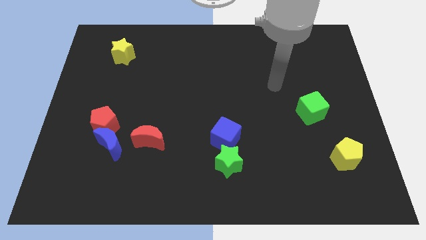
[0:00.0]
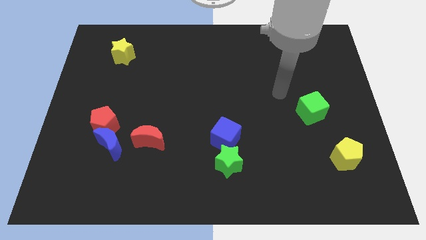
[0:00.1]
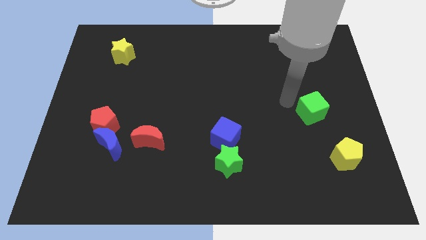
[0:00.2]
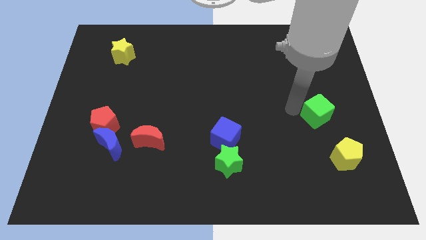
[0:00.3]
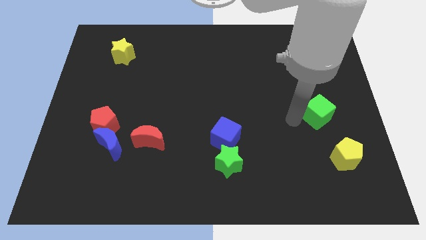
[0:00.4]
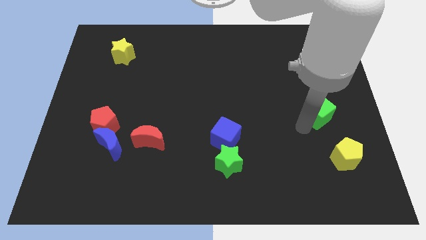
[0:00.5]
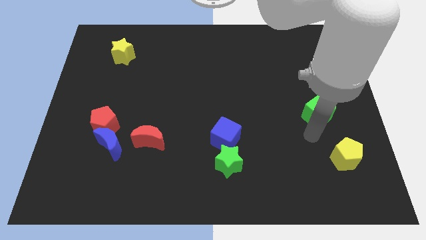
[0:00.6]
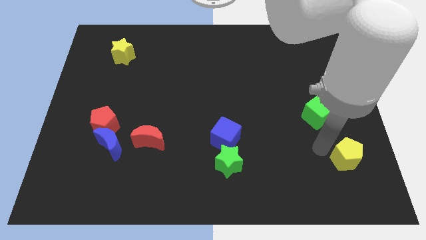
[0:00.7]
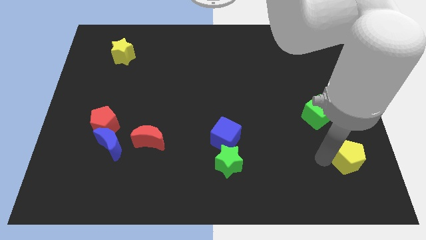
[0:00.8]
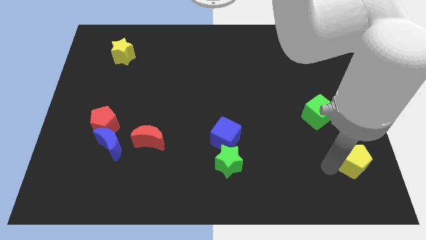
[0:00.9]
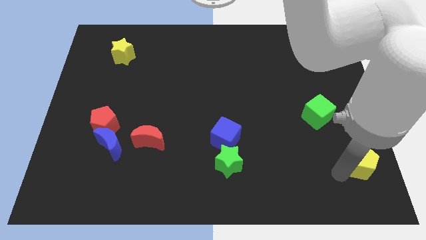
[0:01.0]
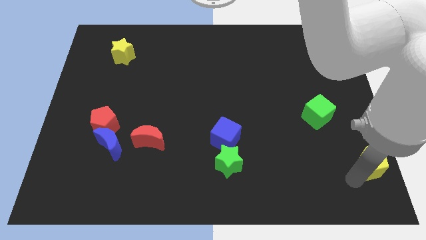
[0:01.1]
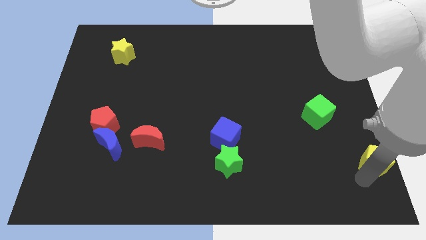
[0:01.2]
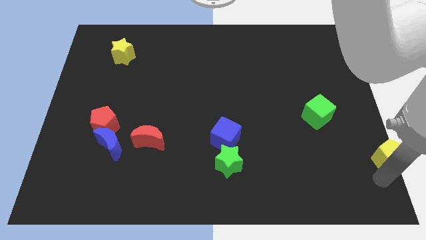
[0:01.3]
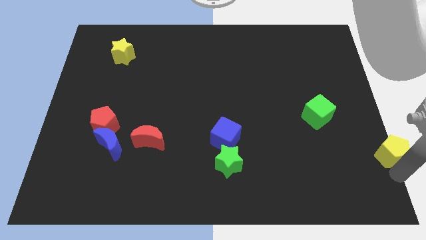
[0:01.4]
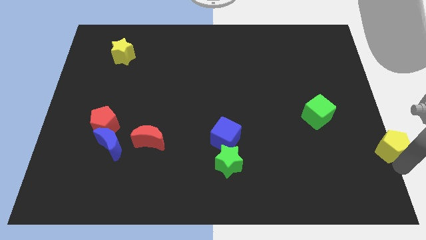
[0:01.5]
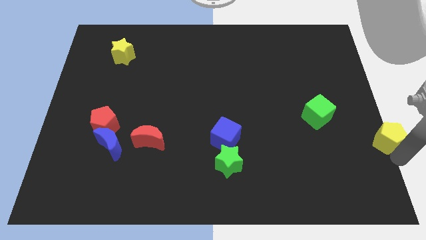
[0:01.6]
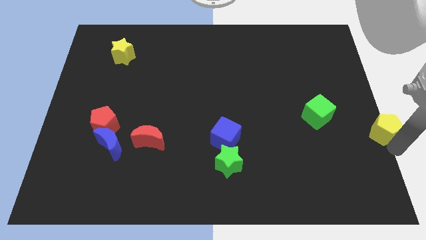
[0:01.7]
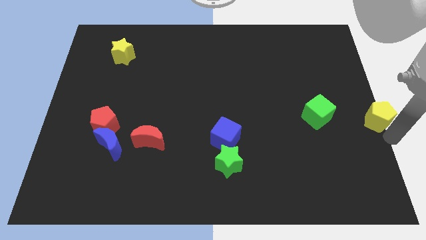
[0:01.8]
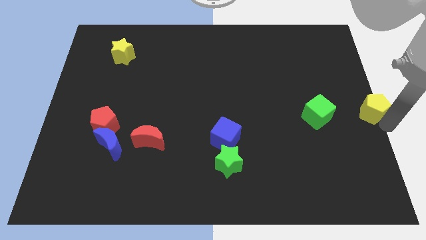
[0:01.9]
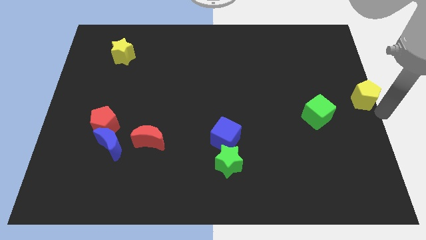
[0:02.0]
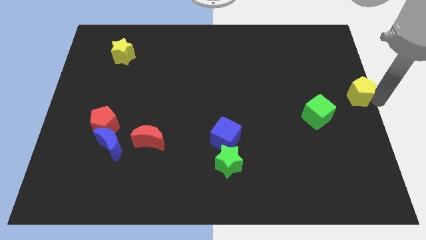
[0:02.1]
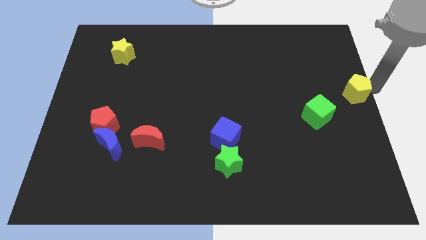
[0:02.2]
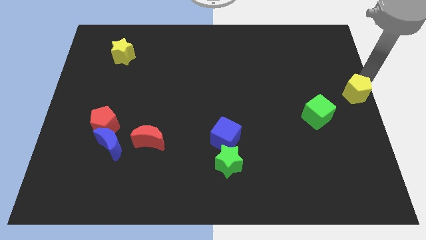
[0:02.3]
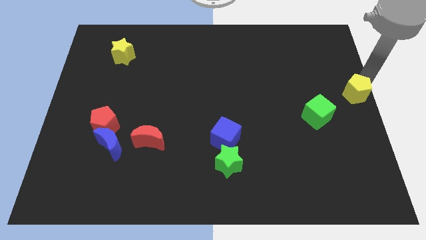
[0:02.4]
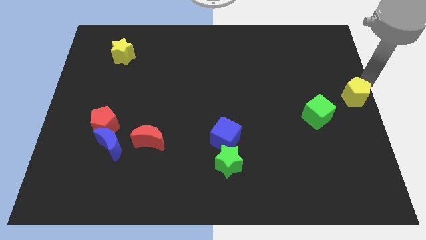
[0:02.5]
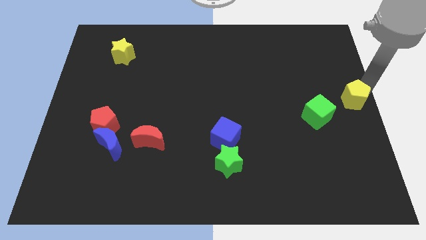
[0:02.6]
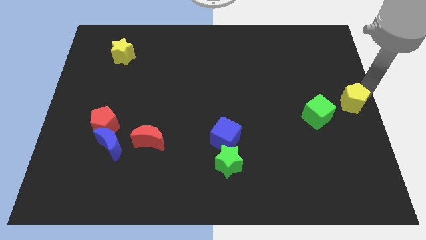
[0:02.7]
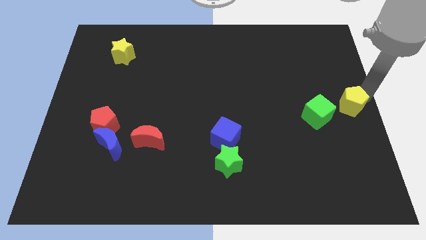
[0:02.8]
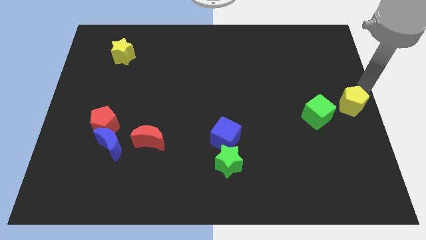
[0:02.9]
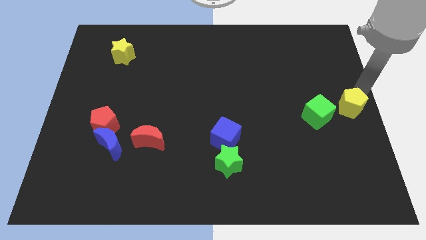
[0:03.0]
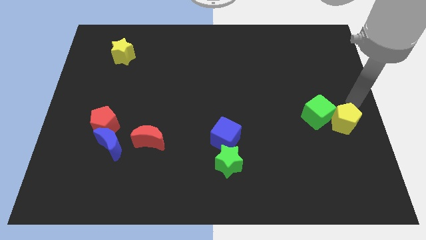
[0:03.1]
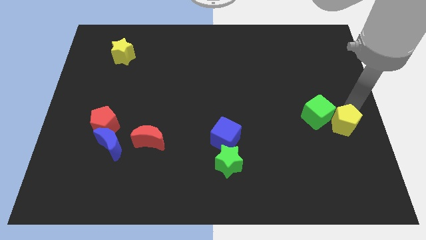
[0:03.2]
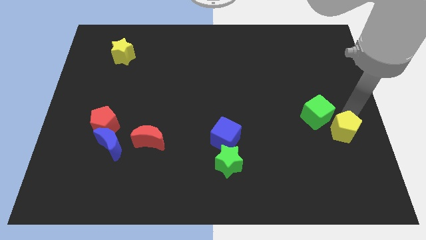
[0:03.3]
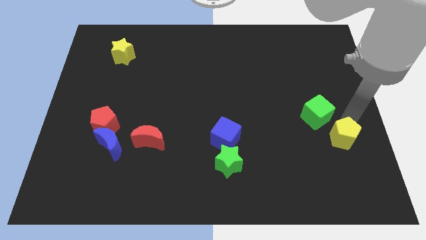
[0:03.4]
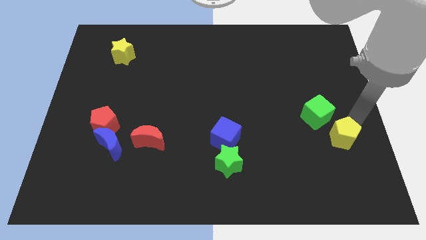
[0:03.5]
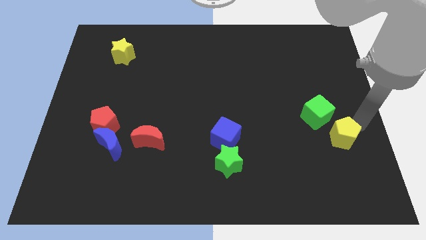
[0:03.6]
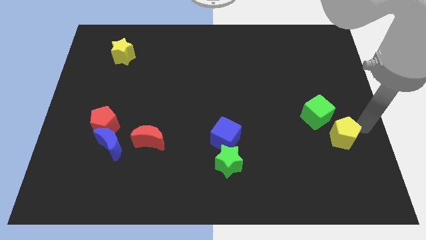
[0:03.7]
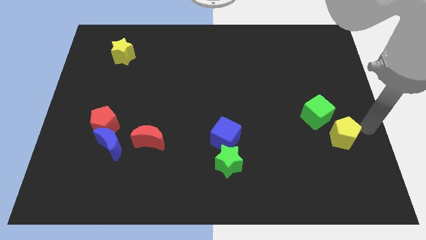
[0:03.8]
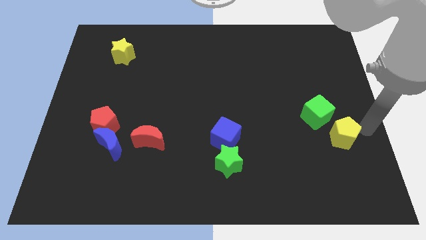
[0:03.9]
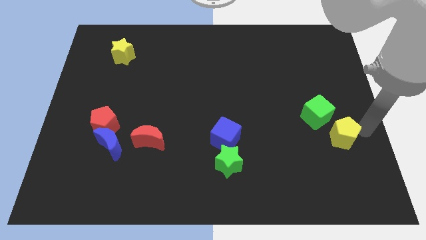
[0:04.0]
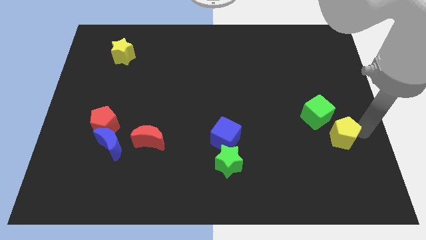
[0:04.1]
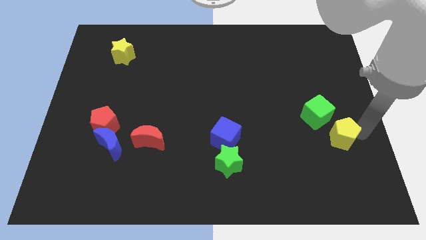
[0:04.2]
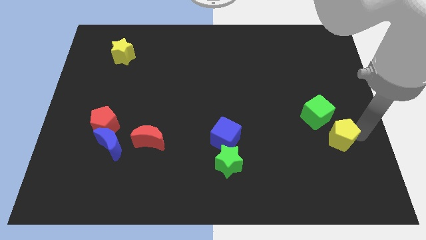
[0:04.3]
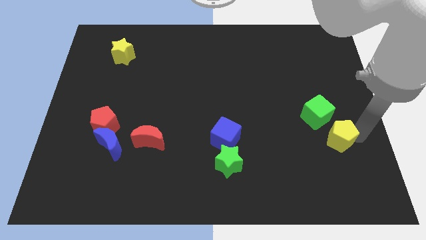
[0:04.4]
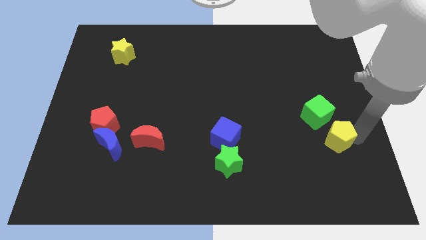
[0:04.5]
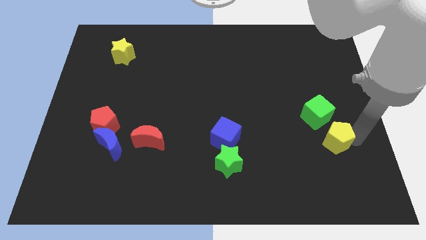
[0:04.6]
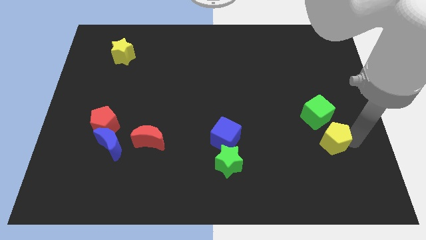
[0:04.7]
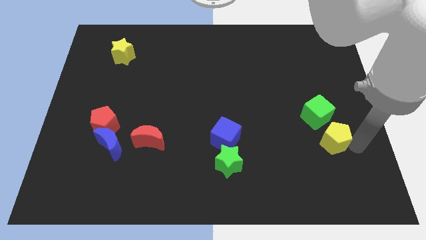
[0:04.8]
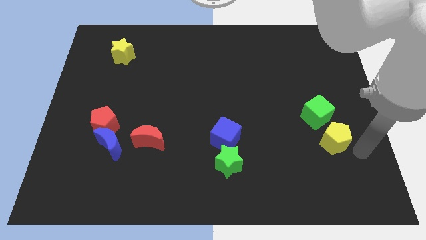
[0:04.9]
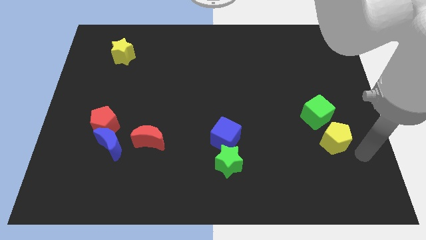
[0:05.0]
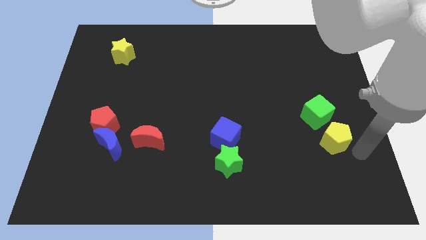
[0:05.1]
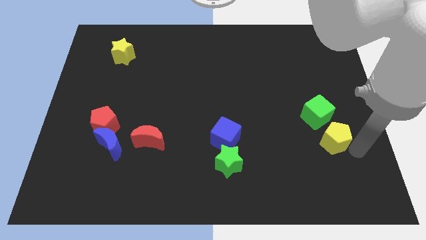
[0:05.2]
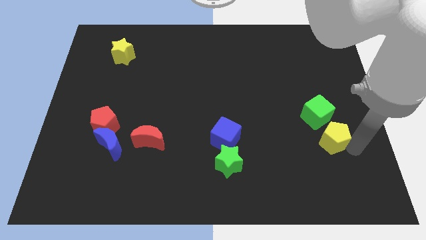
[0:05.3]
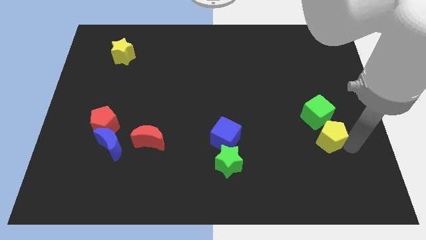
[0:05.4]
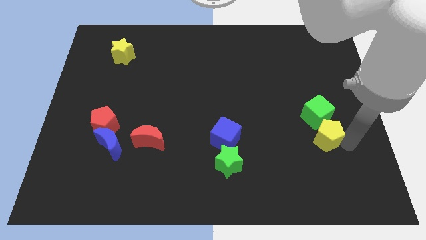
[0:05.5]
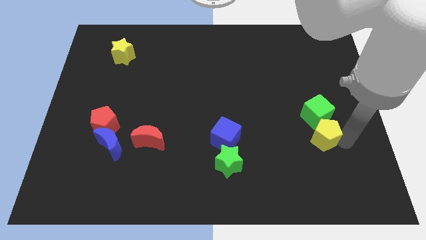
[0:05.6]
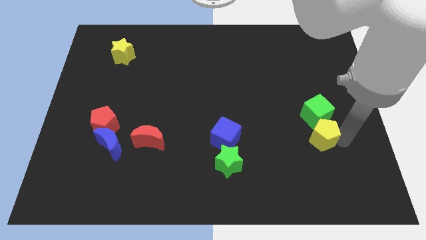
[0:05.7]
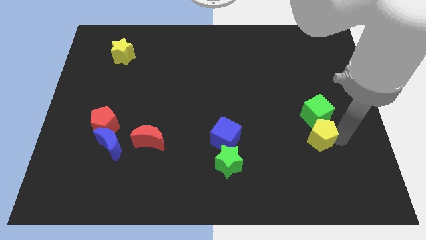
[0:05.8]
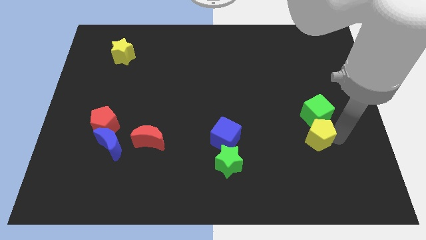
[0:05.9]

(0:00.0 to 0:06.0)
slightly move the yellow pentagon upwards and left diagonally

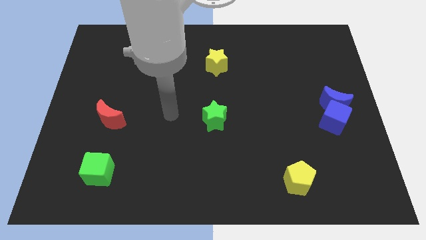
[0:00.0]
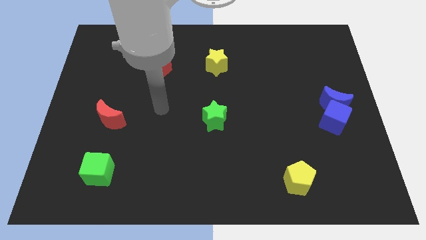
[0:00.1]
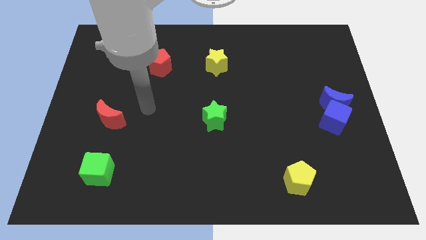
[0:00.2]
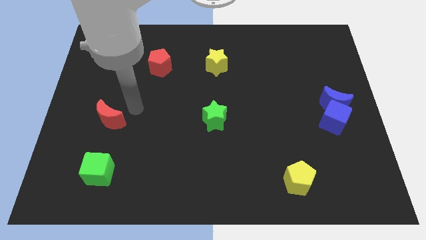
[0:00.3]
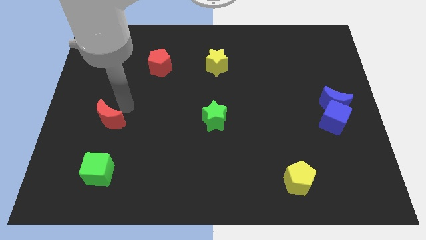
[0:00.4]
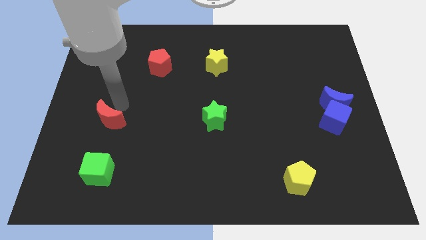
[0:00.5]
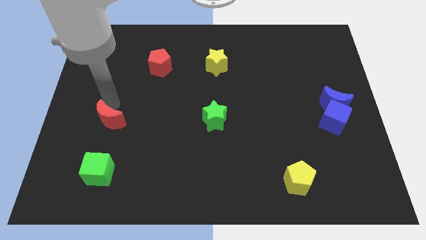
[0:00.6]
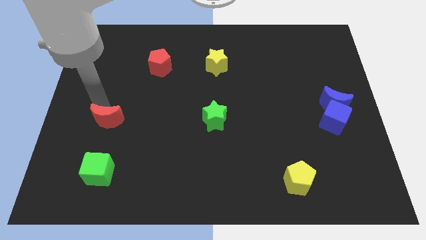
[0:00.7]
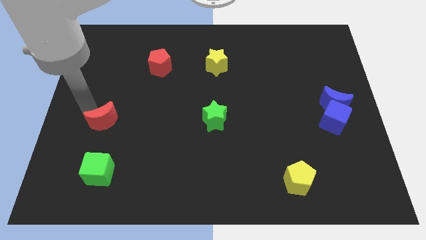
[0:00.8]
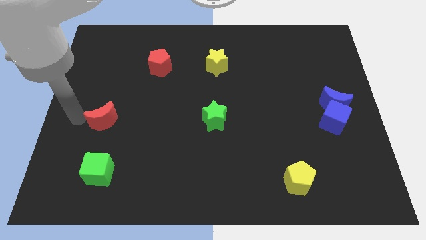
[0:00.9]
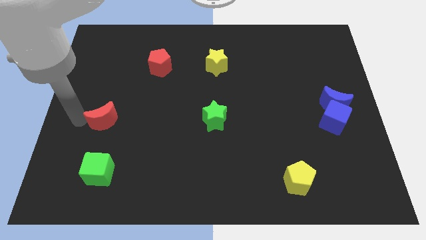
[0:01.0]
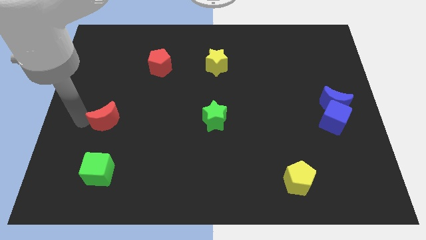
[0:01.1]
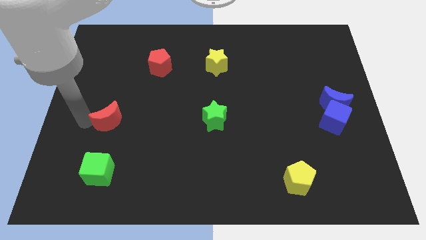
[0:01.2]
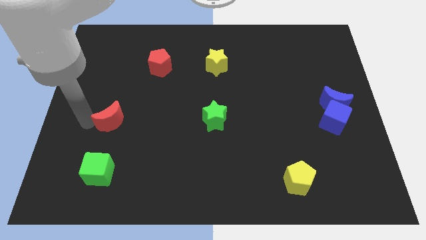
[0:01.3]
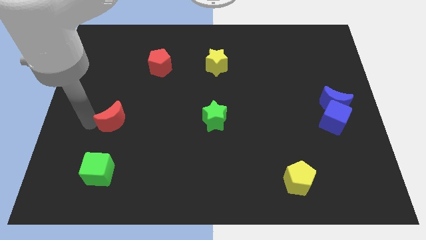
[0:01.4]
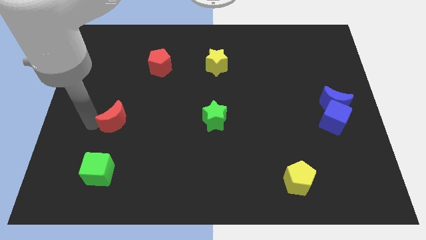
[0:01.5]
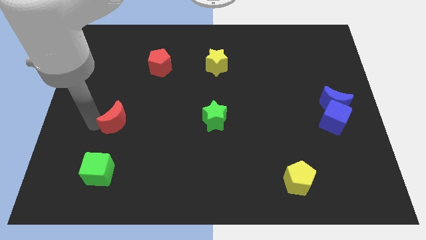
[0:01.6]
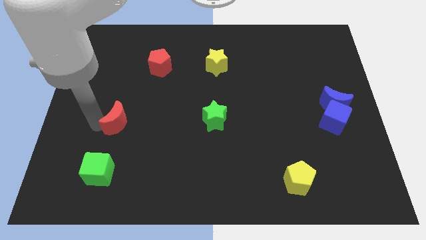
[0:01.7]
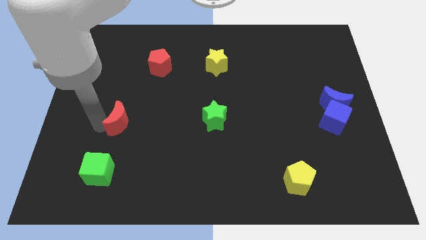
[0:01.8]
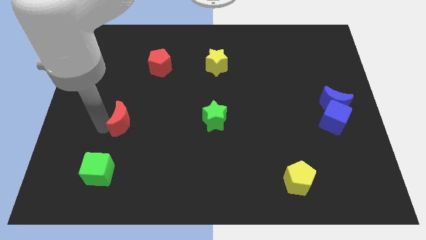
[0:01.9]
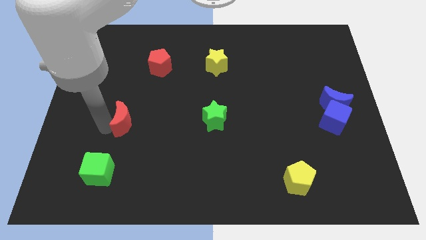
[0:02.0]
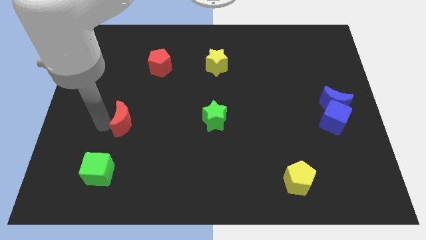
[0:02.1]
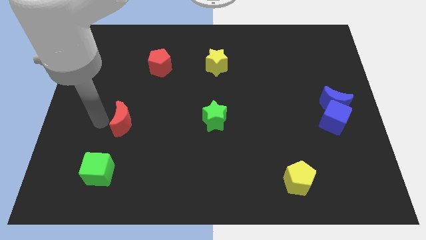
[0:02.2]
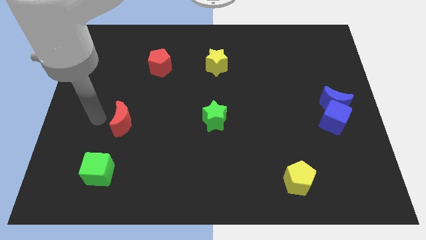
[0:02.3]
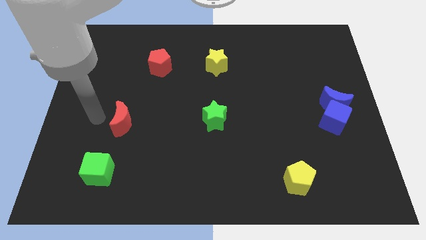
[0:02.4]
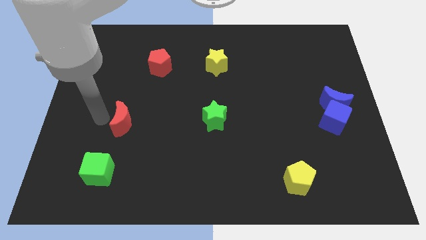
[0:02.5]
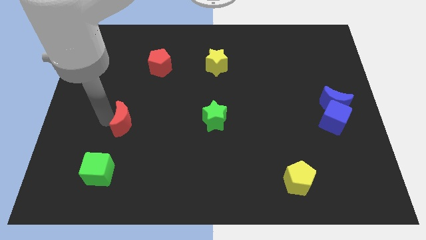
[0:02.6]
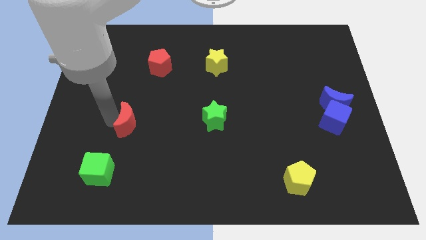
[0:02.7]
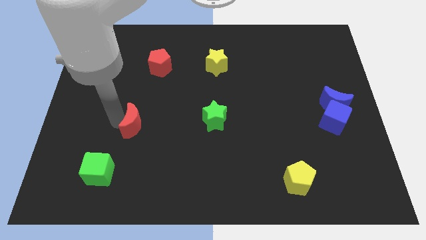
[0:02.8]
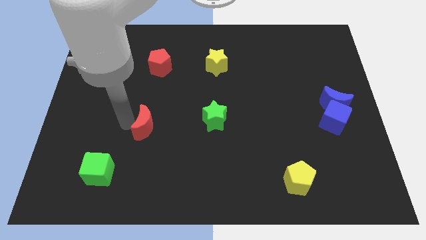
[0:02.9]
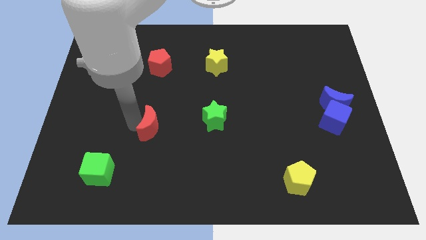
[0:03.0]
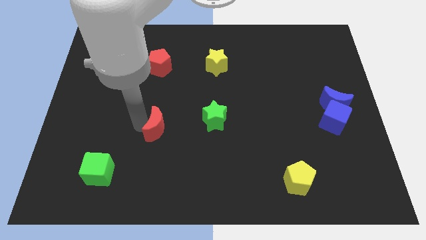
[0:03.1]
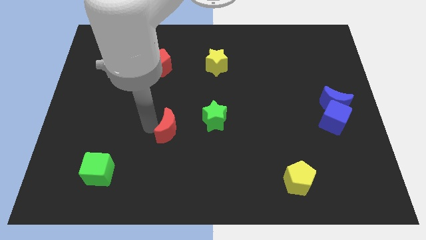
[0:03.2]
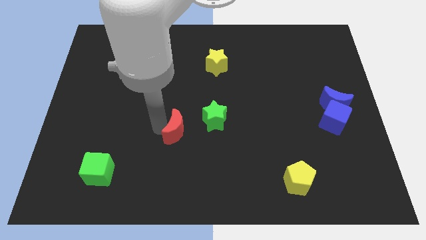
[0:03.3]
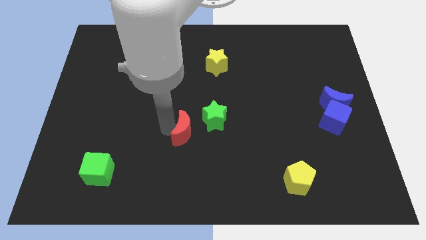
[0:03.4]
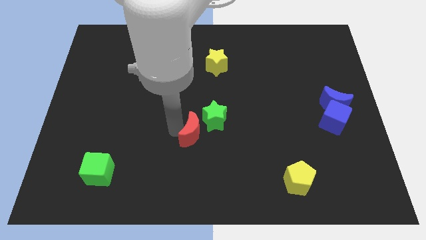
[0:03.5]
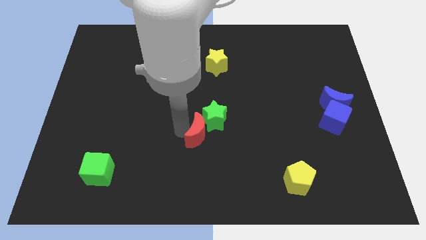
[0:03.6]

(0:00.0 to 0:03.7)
slide the red moon to the right
